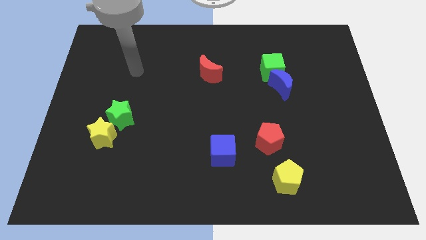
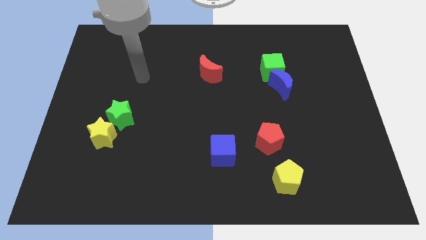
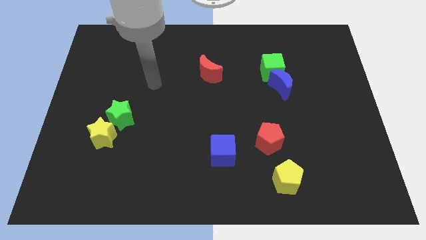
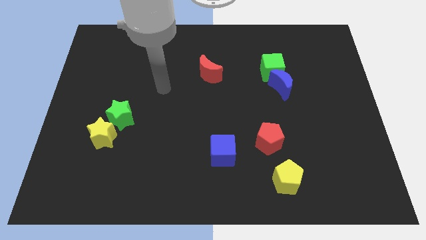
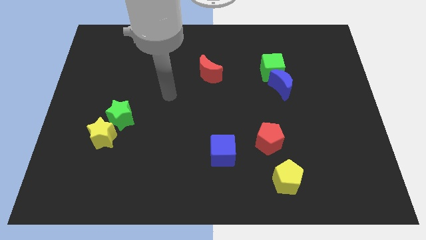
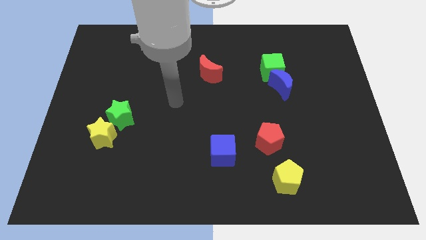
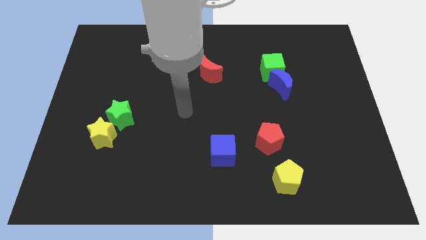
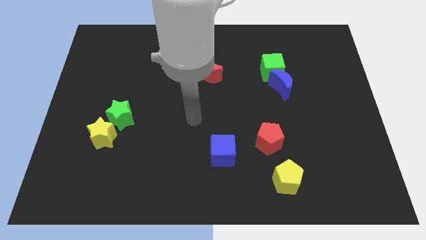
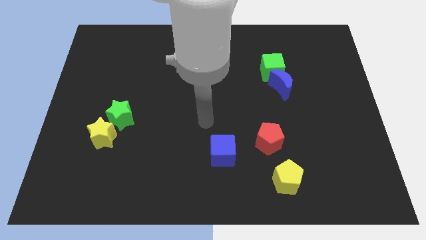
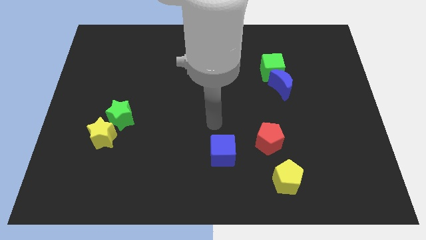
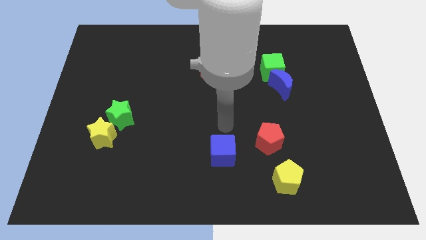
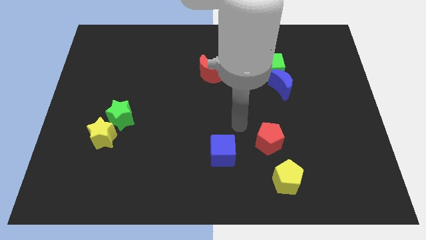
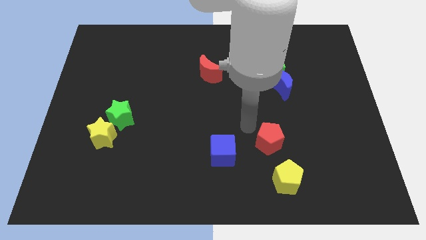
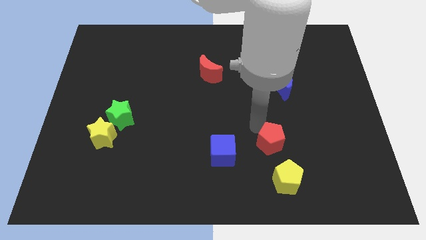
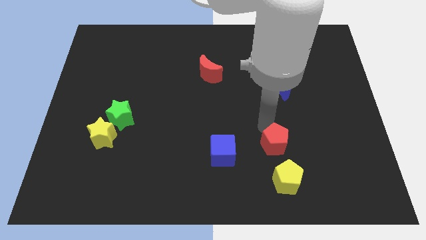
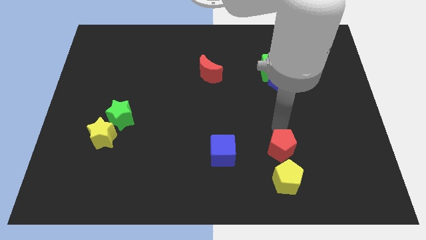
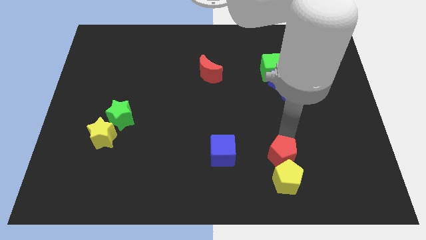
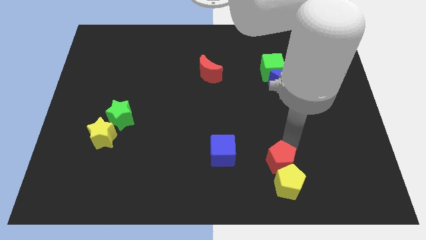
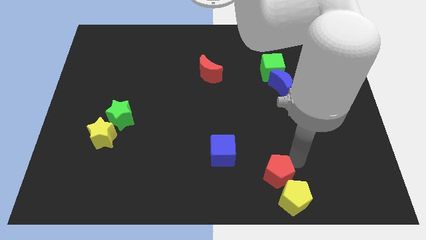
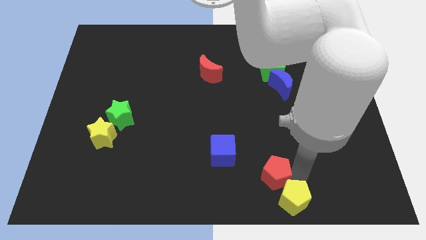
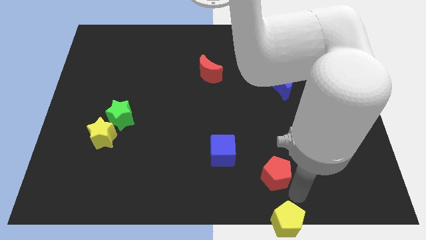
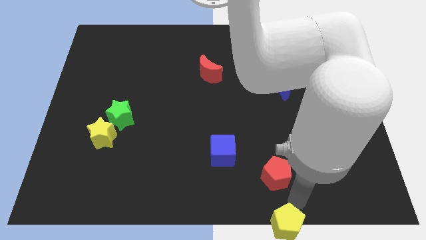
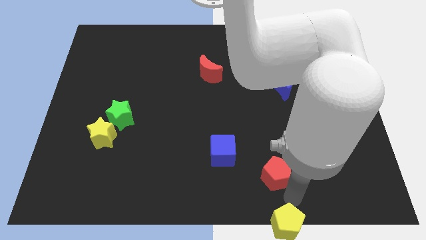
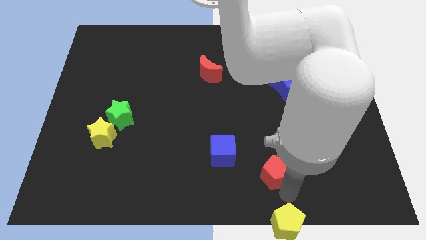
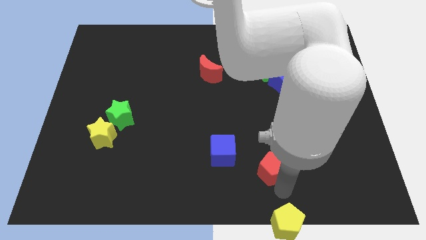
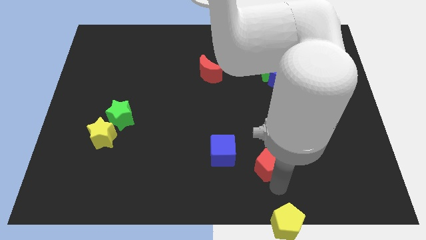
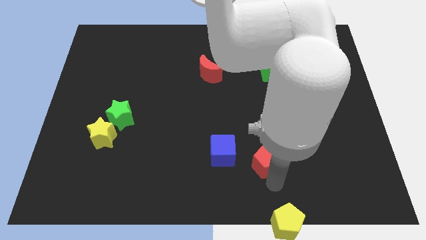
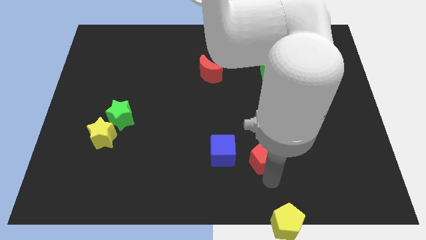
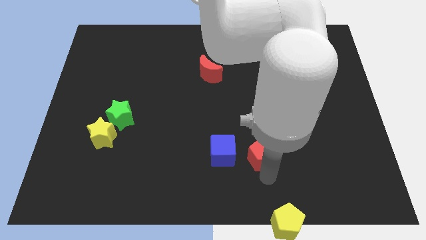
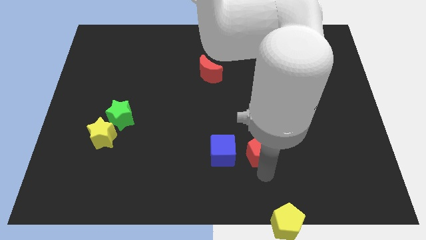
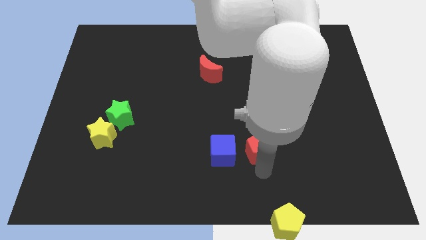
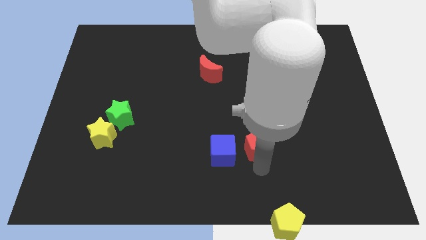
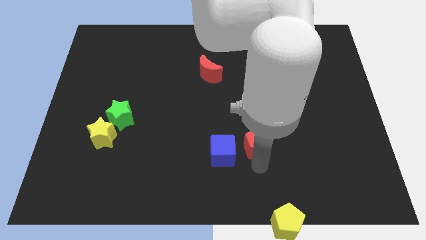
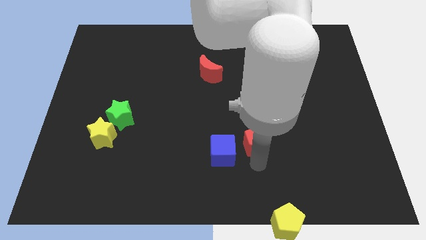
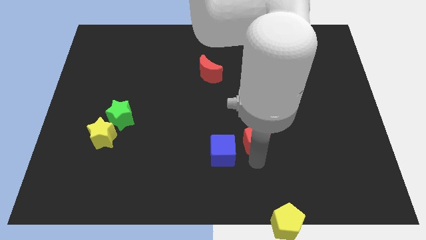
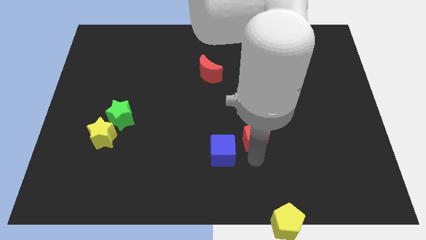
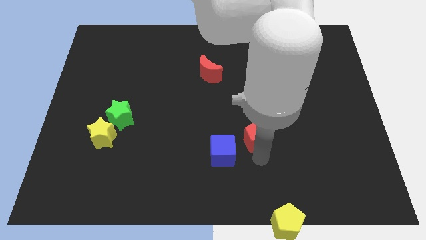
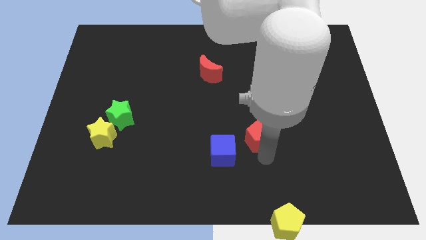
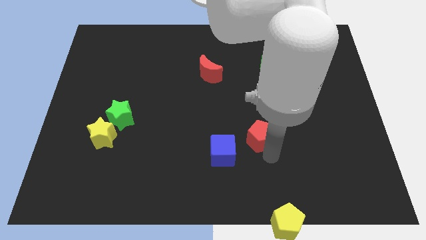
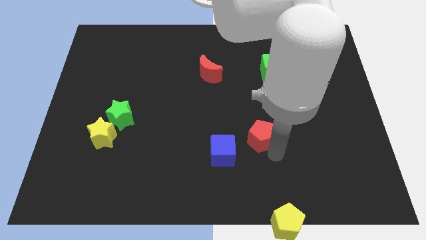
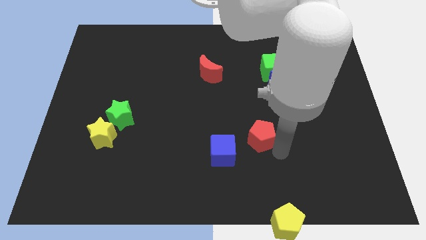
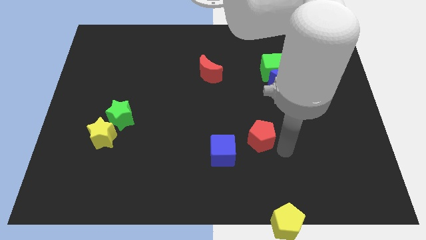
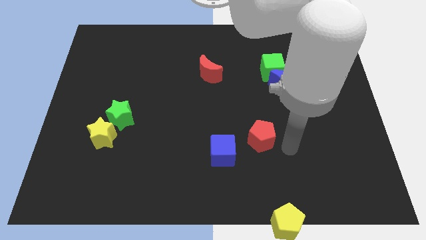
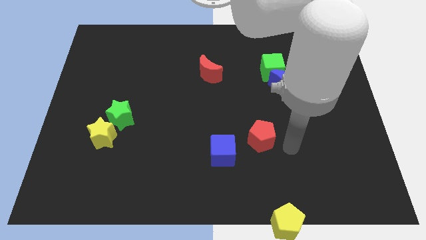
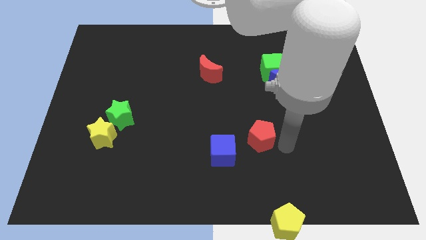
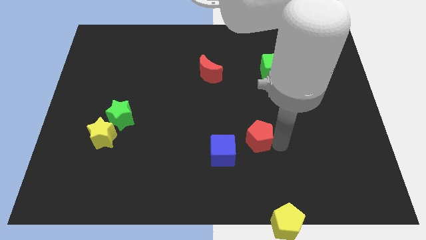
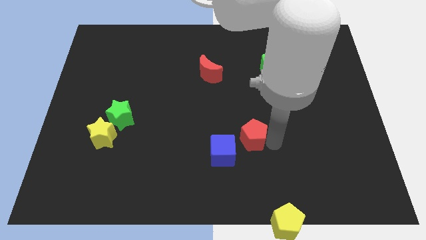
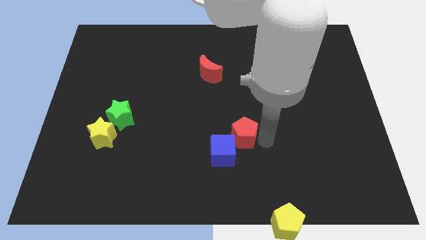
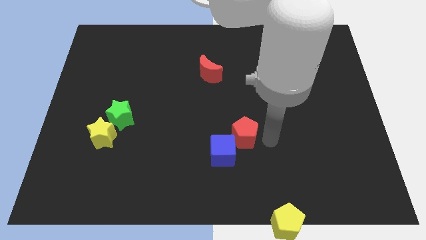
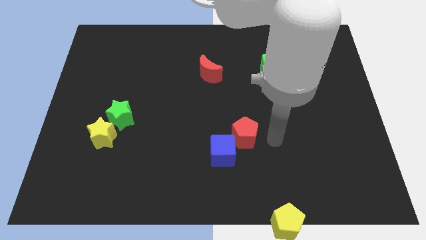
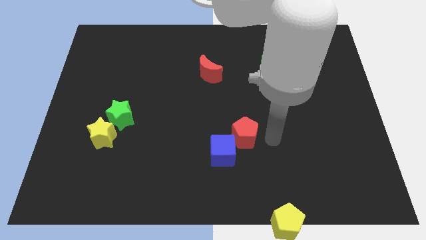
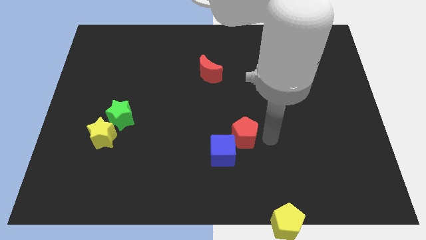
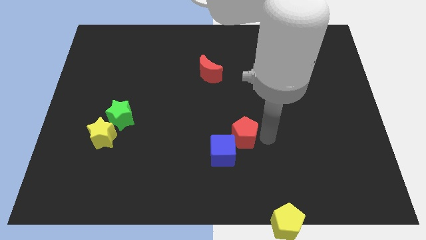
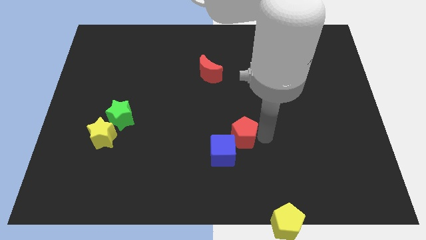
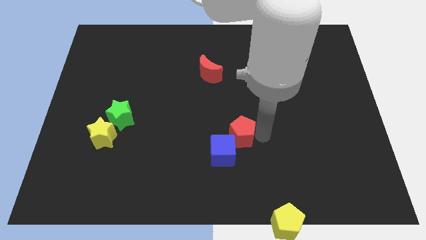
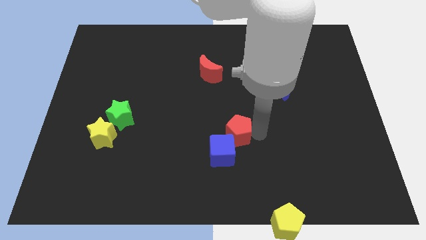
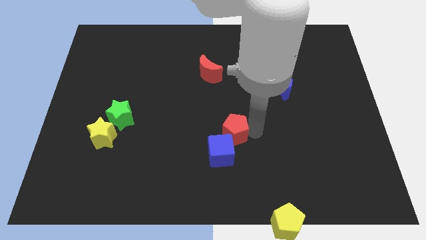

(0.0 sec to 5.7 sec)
move the red pentagon somewhat left

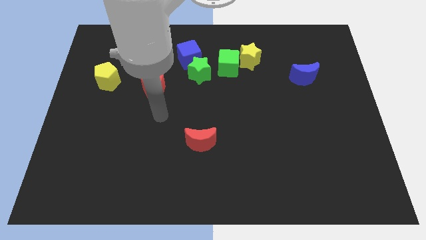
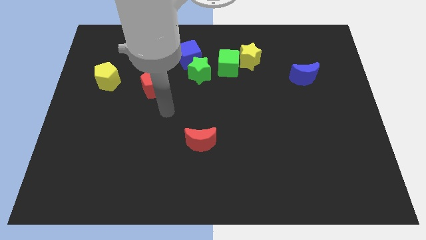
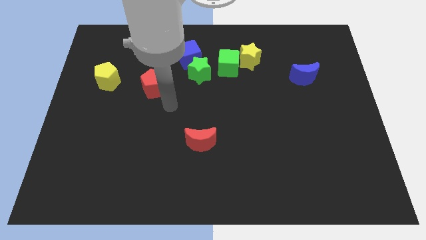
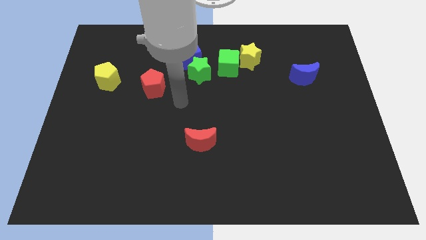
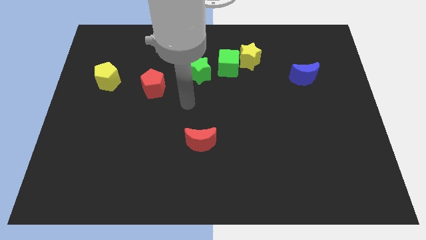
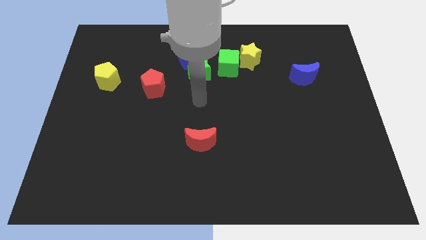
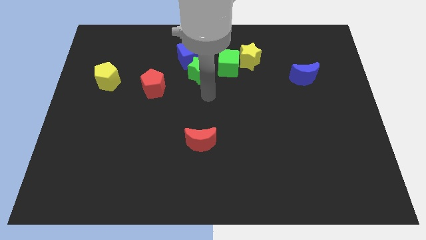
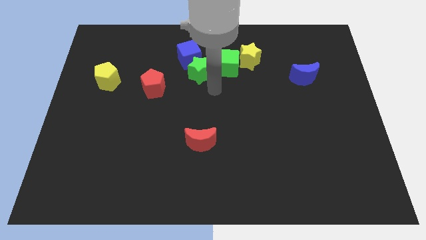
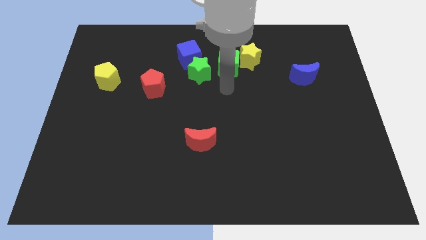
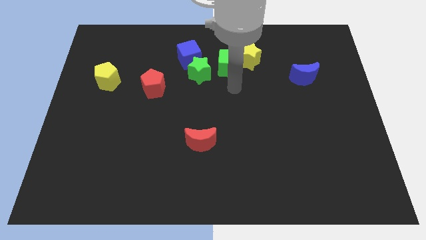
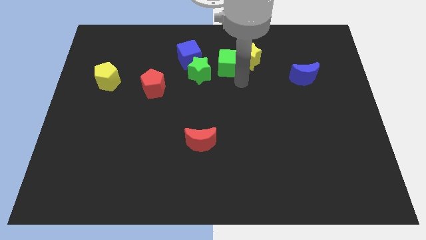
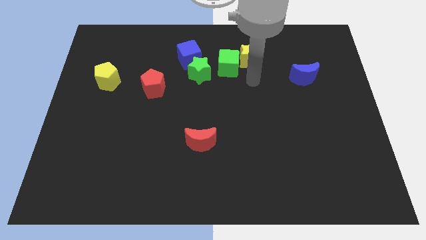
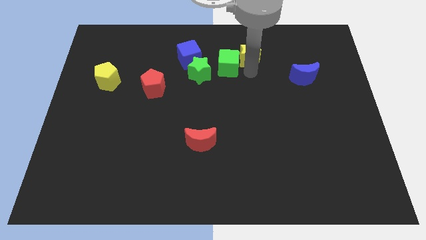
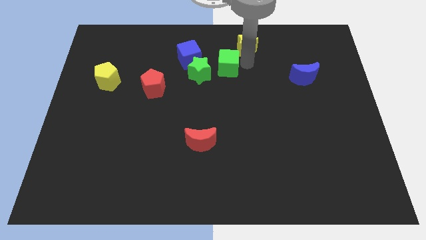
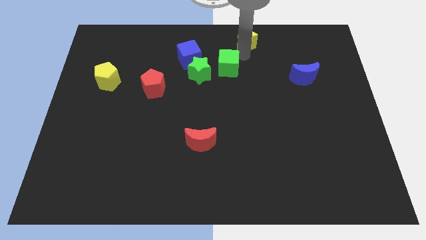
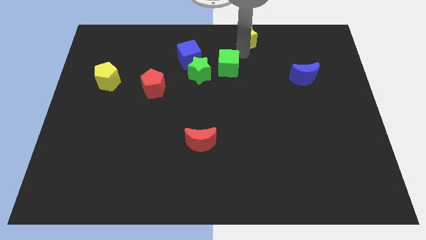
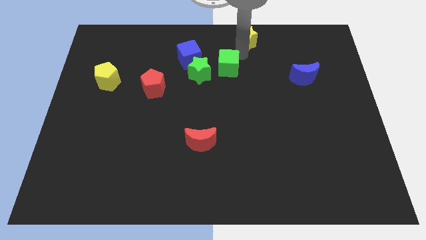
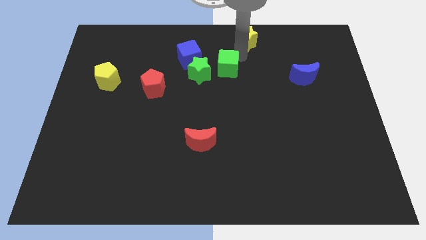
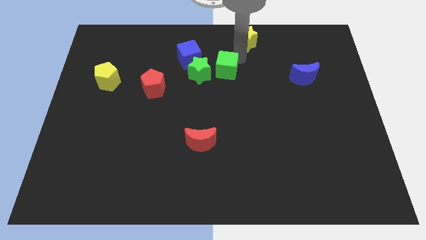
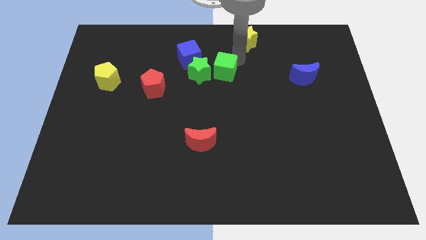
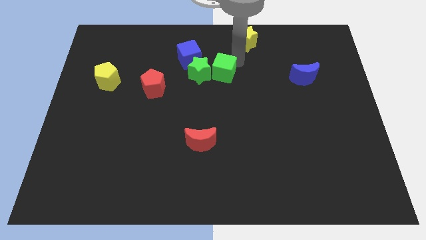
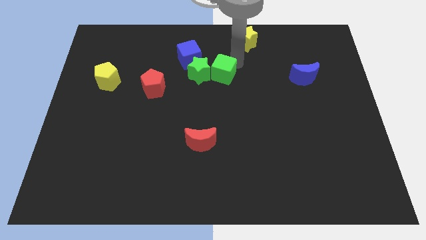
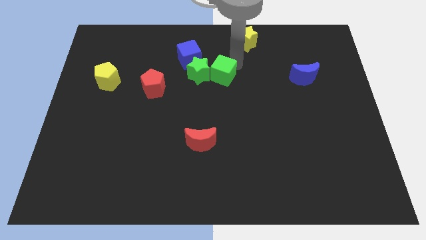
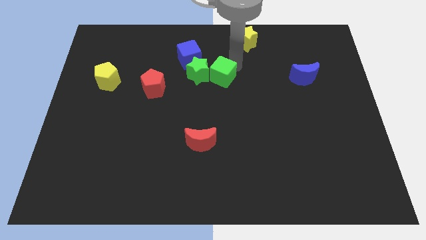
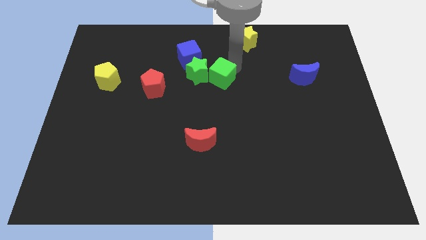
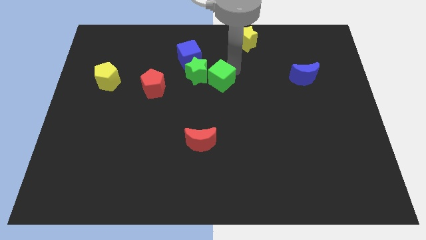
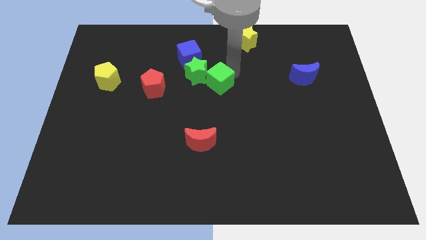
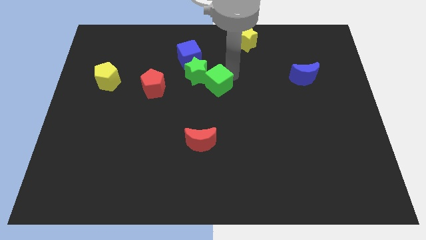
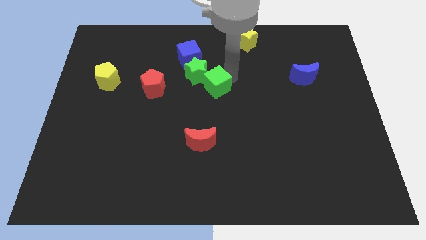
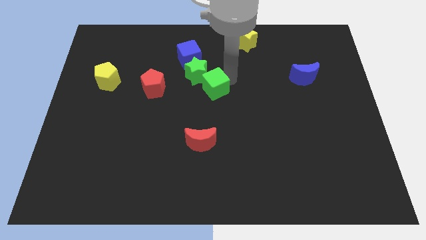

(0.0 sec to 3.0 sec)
slide the green cube slightly diagonally downwards and left
